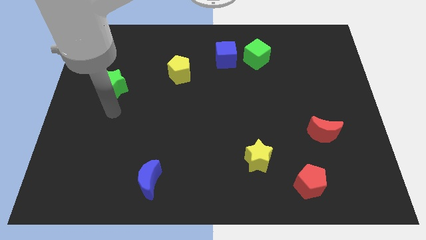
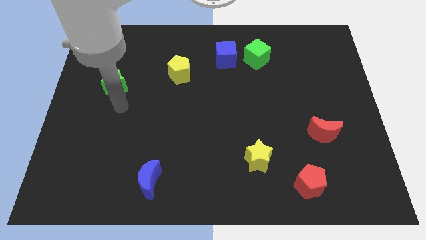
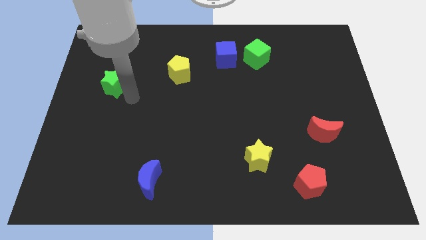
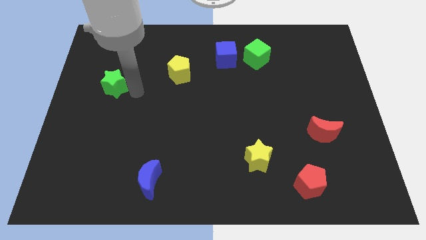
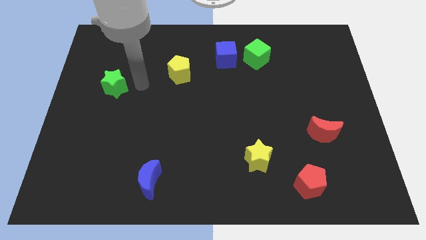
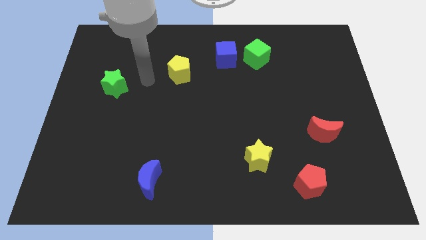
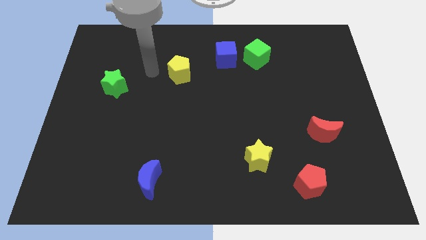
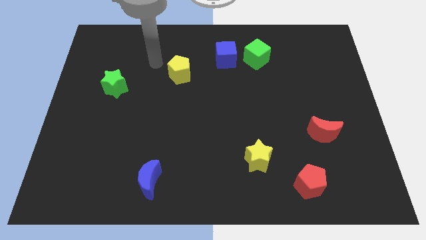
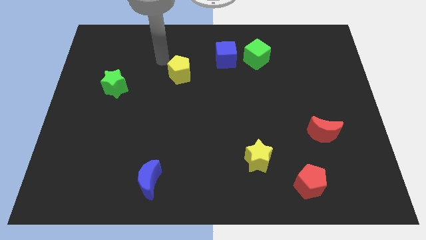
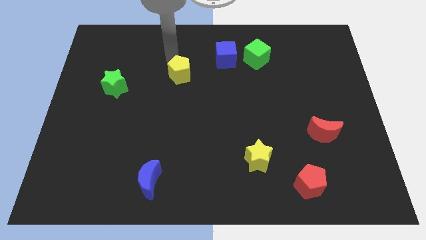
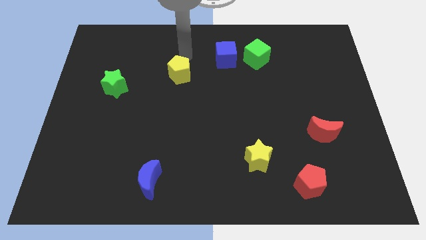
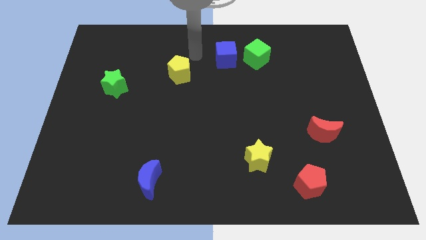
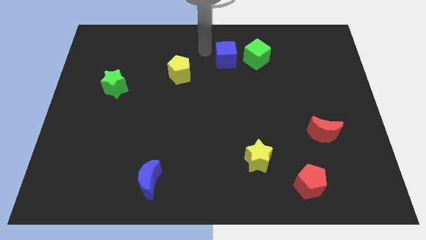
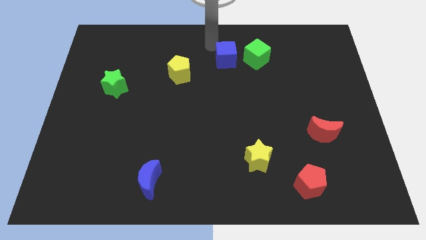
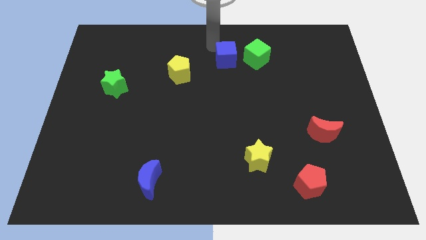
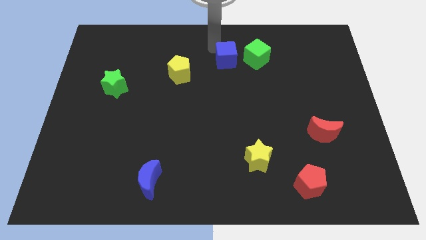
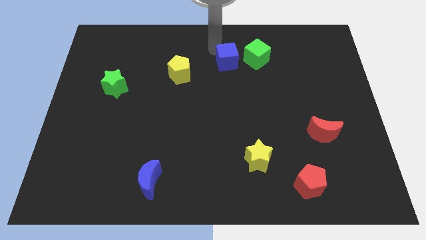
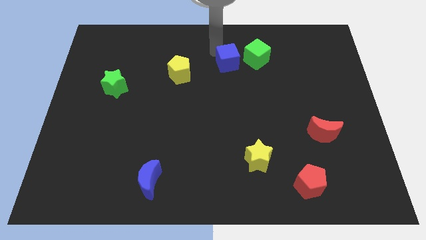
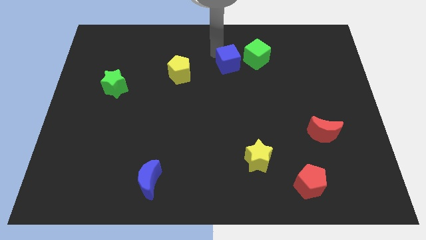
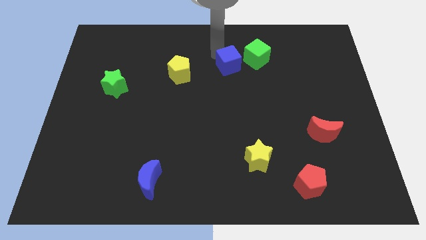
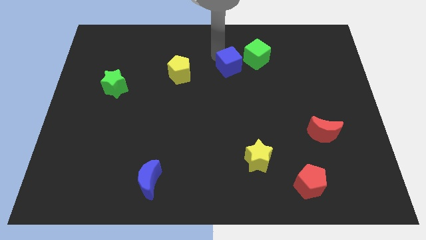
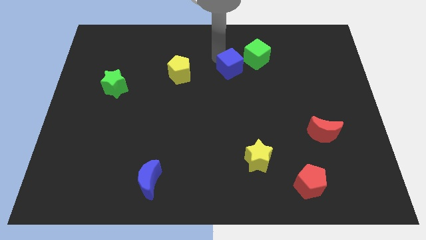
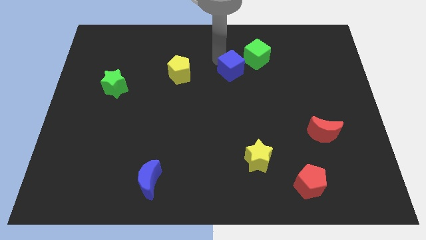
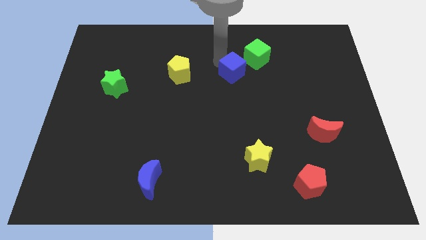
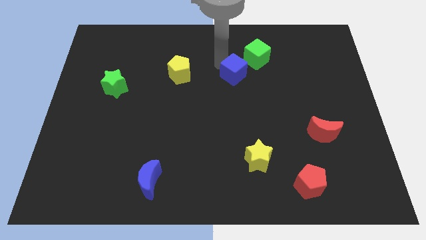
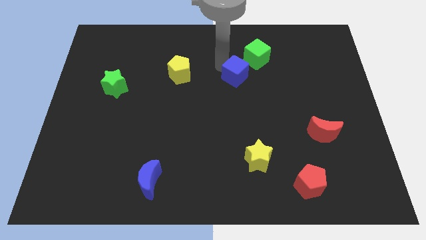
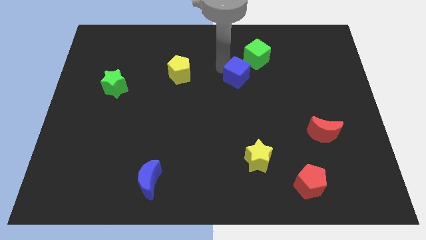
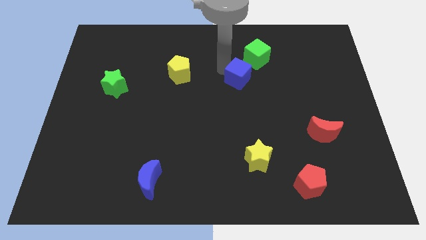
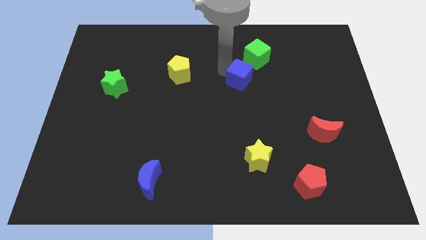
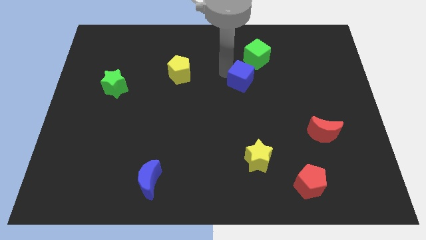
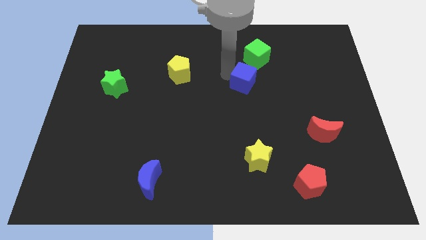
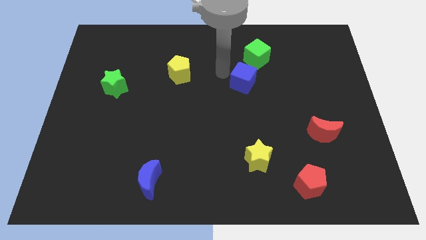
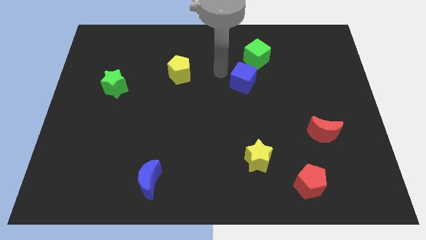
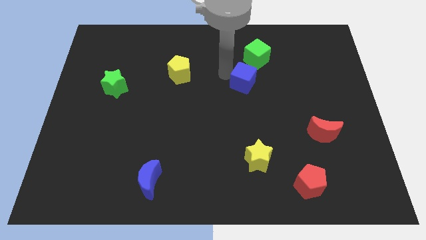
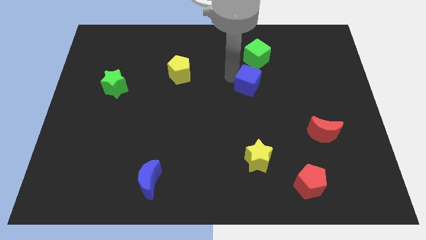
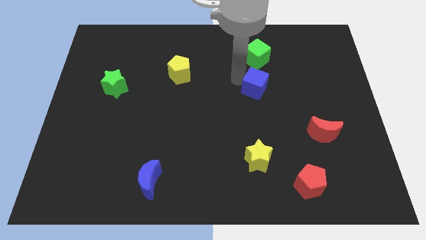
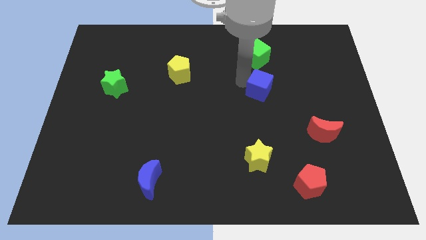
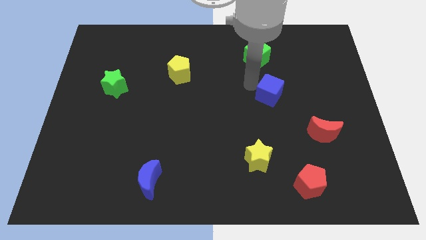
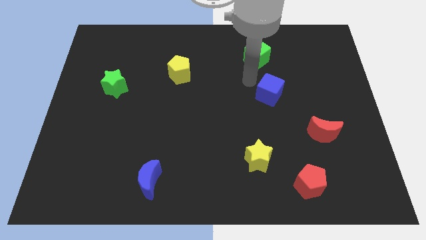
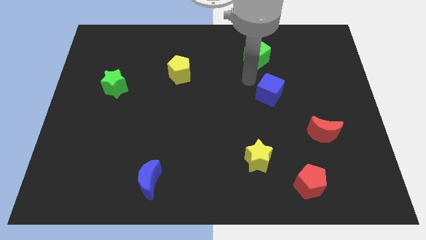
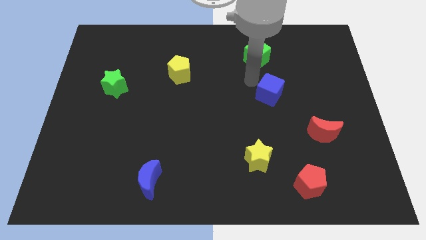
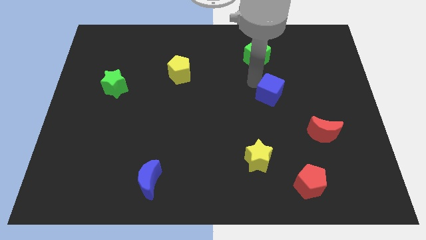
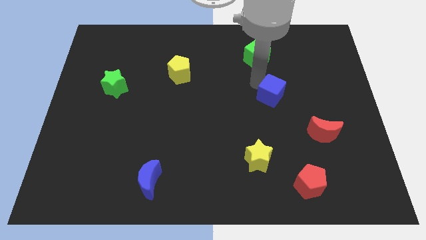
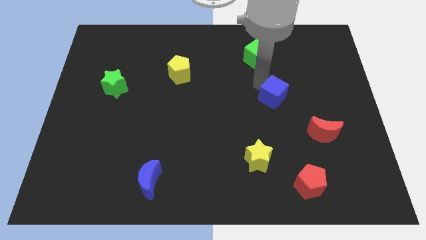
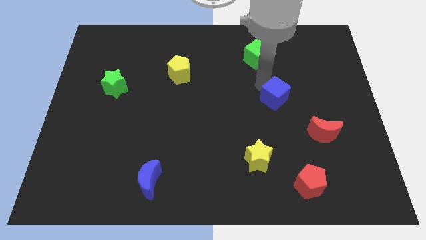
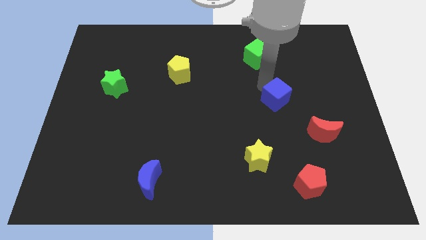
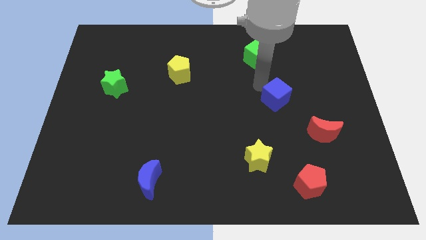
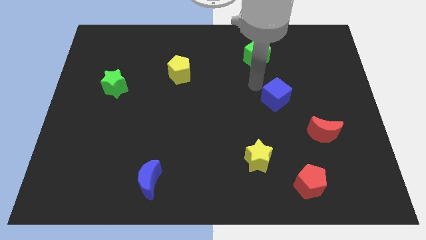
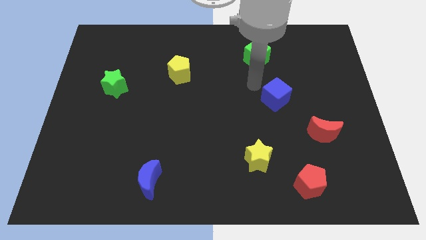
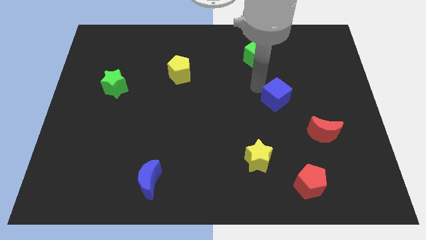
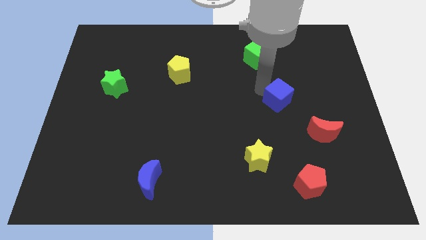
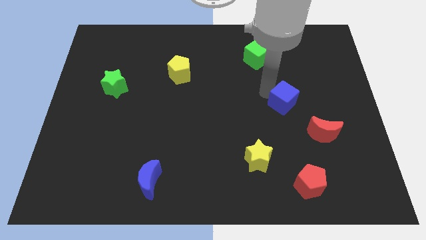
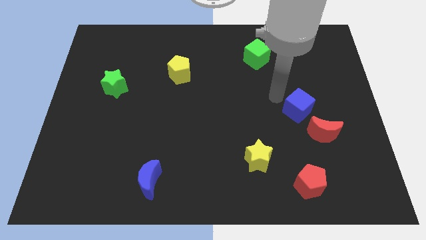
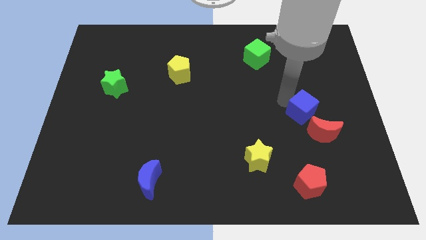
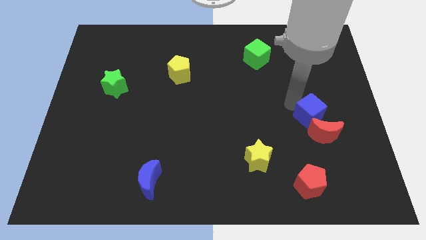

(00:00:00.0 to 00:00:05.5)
move the blue cube towards the red moon

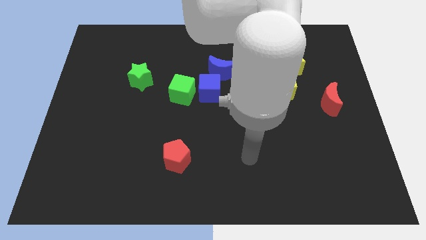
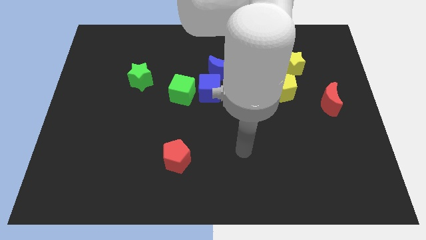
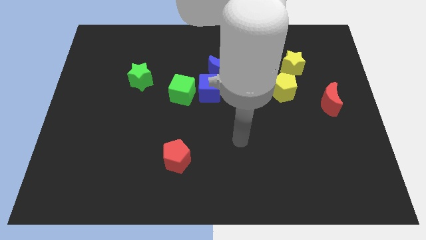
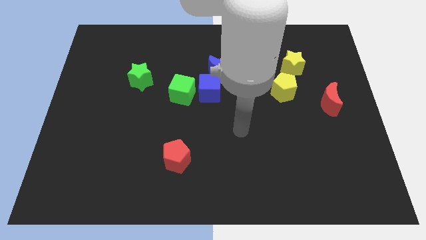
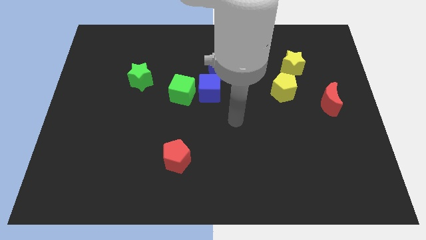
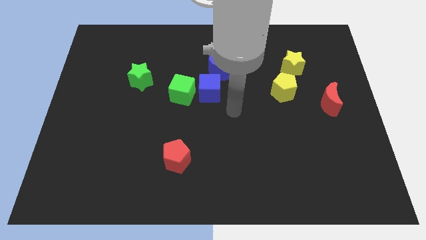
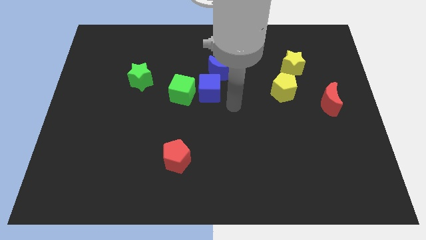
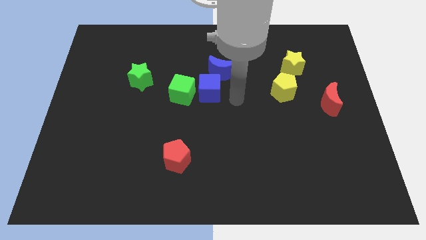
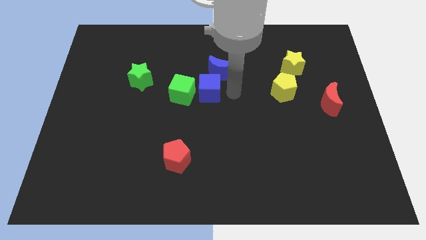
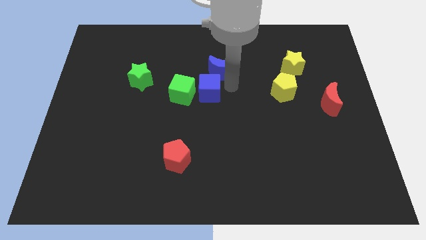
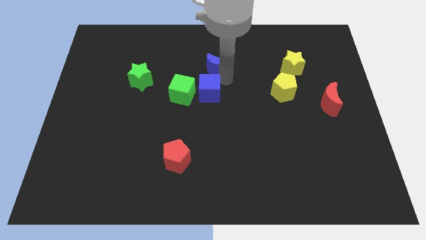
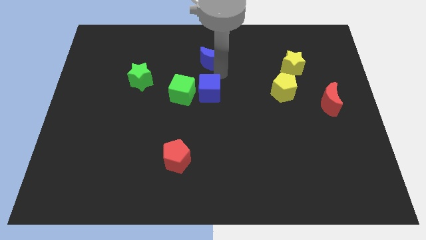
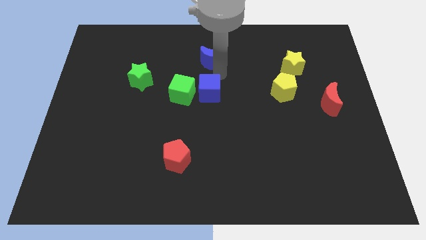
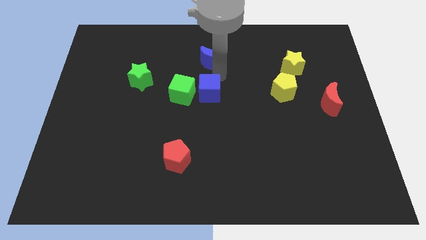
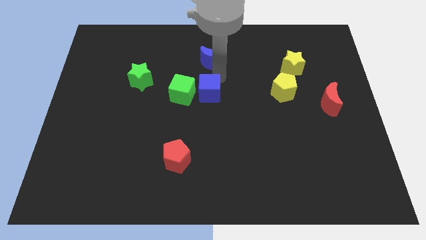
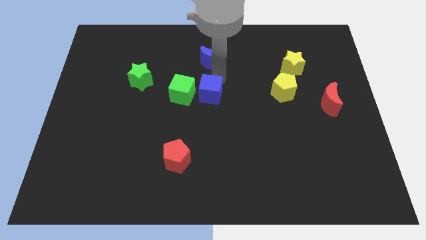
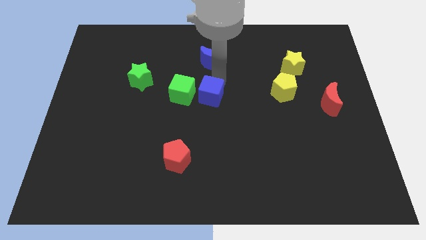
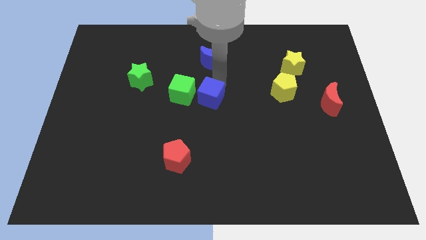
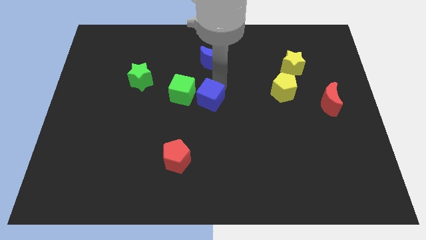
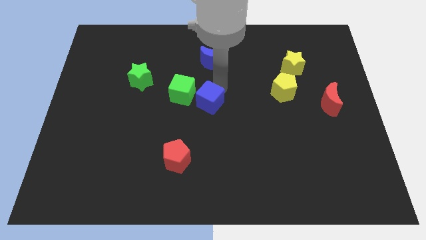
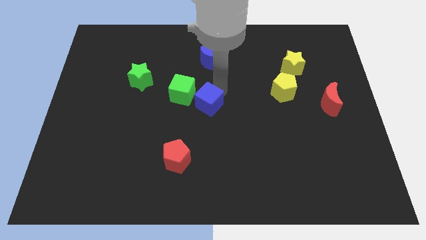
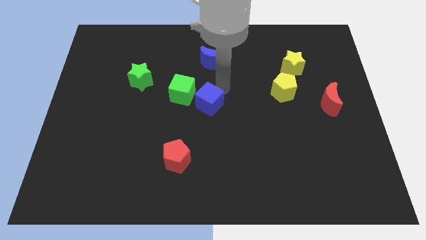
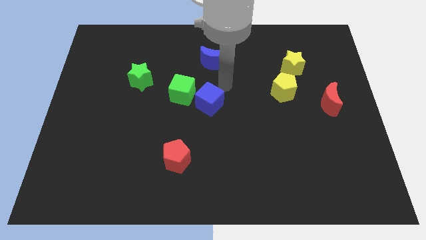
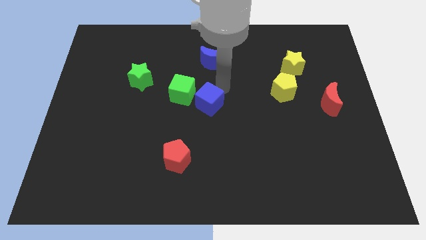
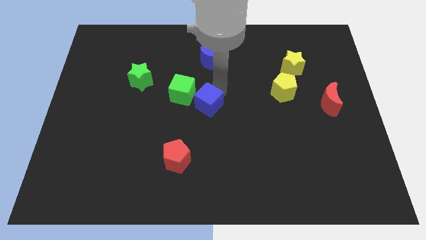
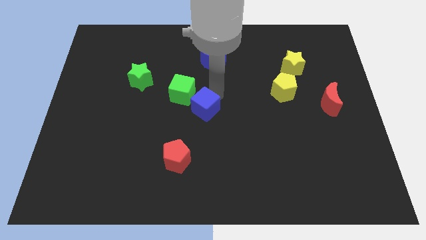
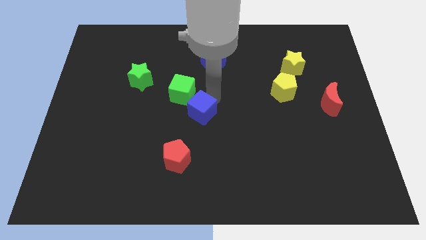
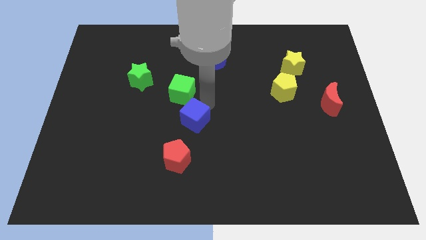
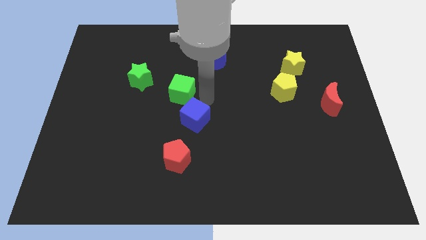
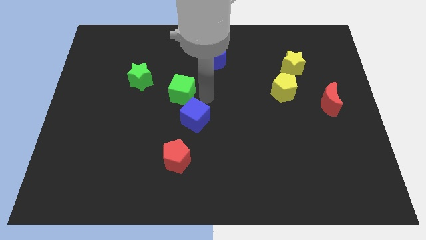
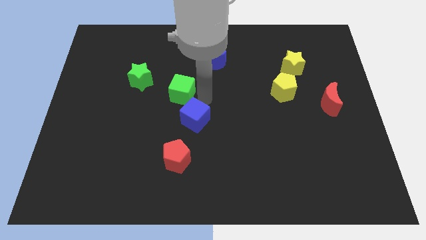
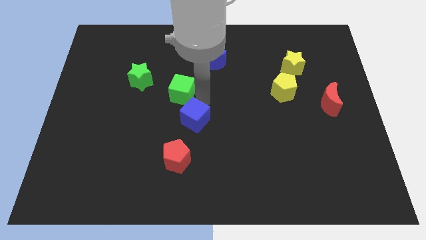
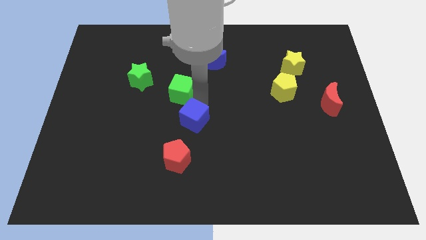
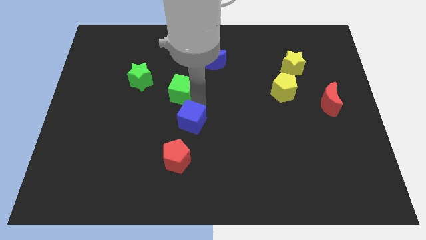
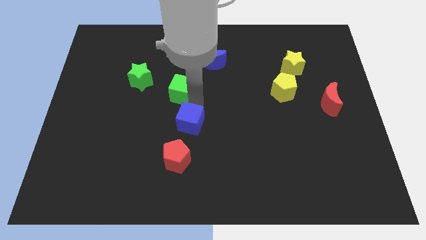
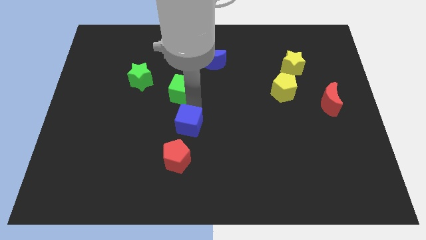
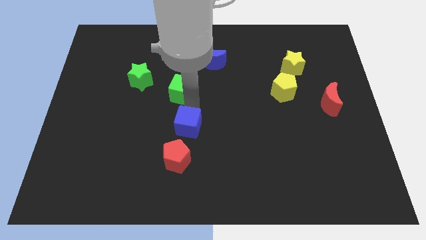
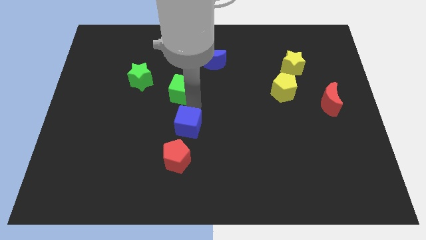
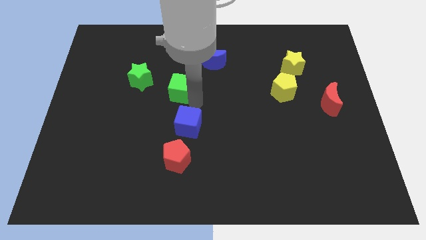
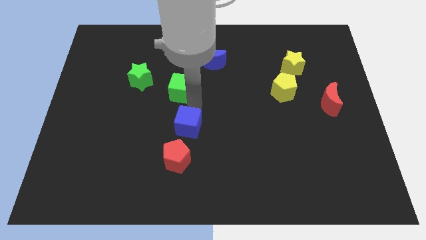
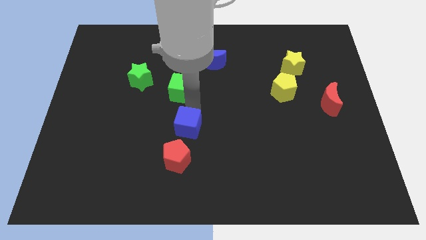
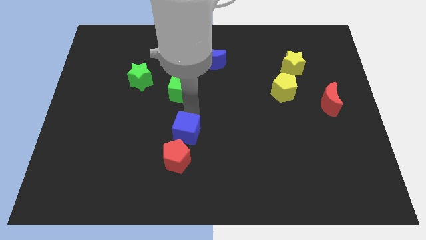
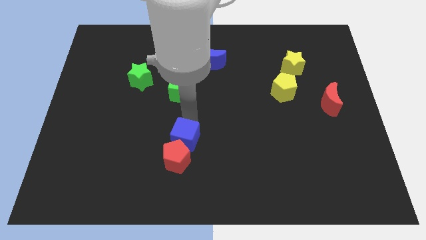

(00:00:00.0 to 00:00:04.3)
move the blue cube towards the red pentagon
